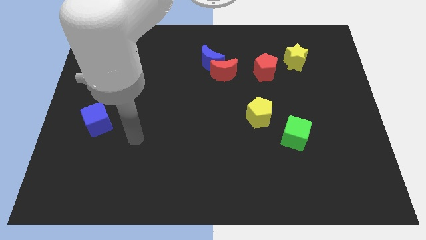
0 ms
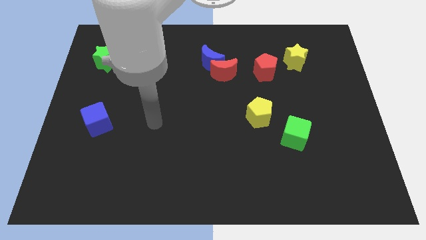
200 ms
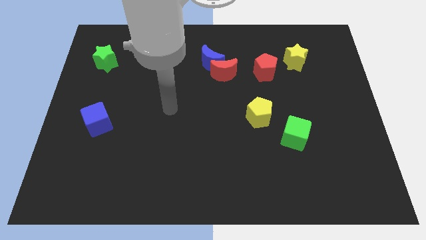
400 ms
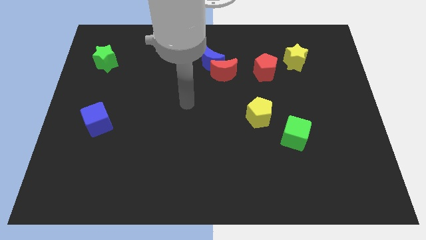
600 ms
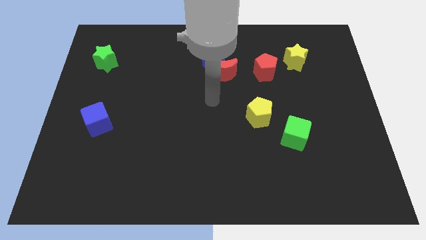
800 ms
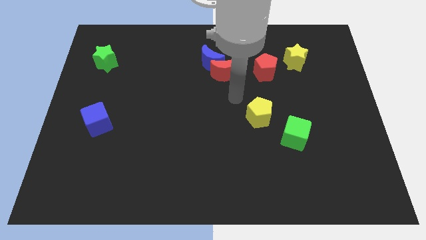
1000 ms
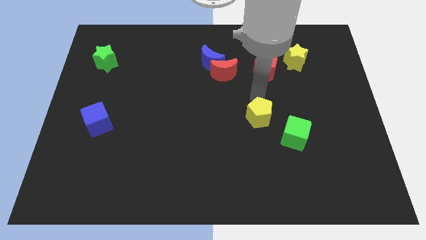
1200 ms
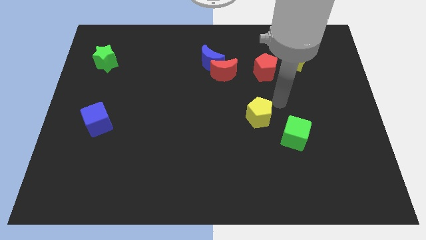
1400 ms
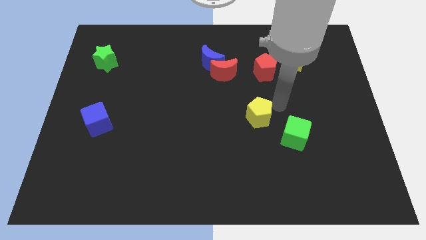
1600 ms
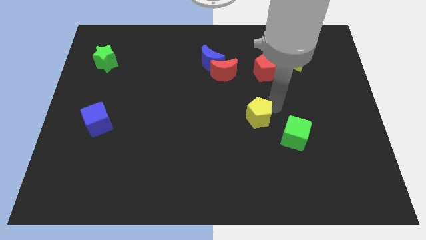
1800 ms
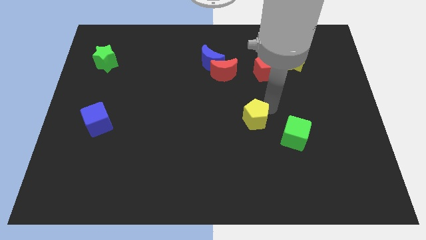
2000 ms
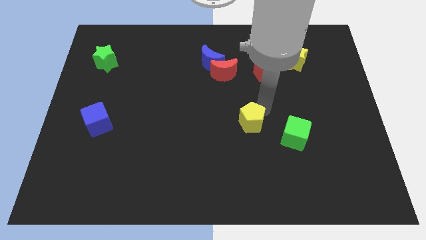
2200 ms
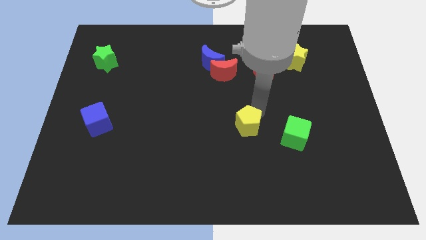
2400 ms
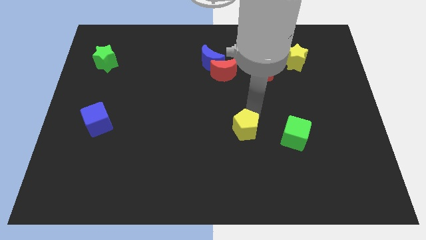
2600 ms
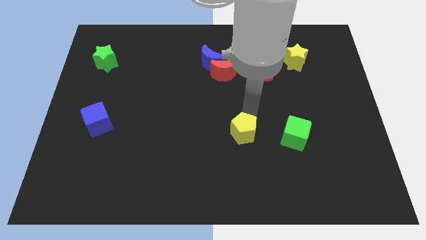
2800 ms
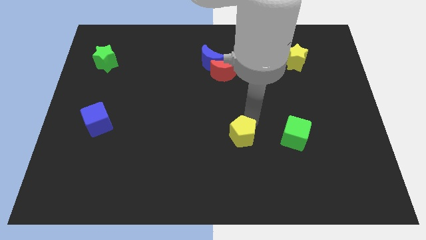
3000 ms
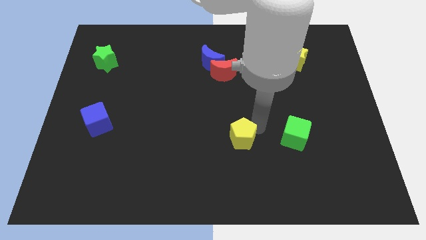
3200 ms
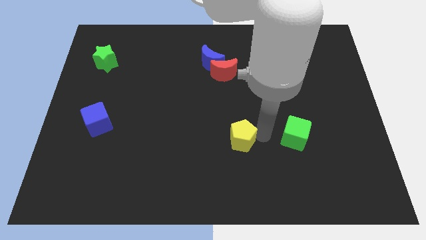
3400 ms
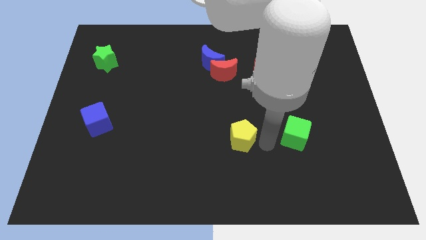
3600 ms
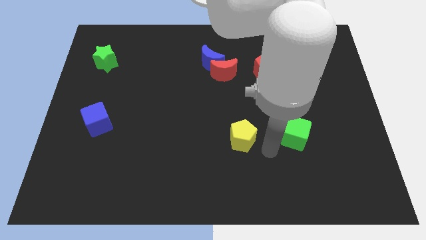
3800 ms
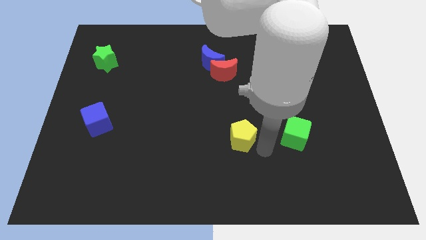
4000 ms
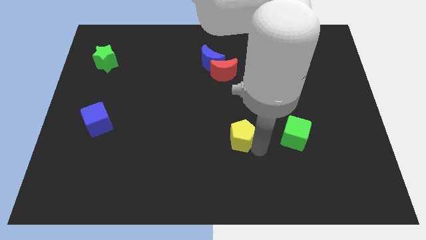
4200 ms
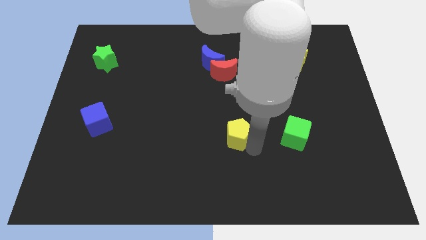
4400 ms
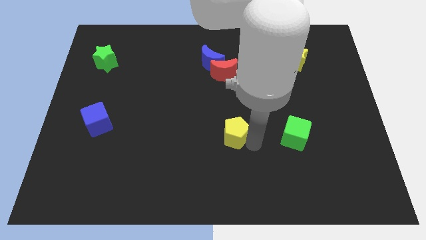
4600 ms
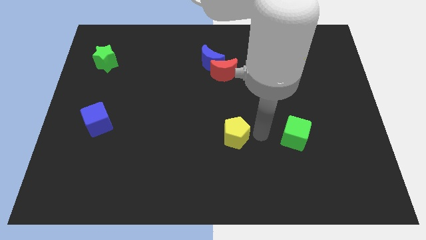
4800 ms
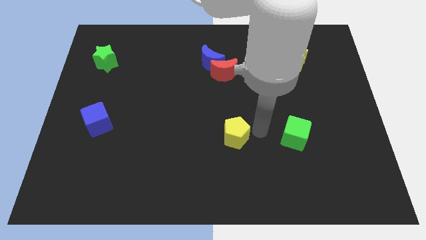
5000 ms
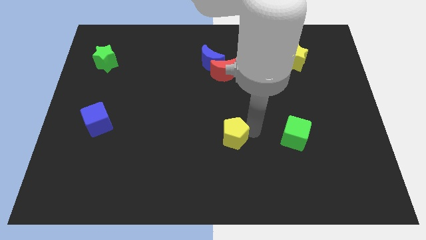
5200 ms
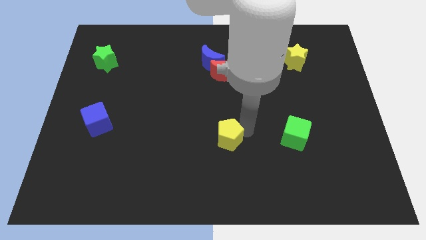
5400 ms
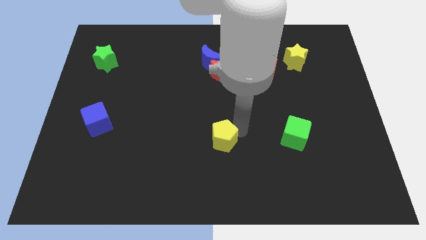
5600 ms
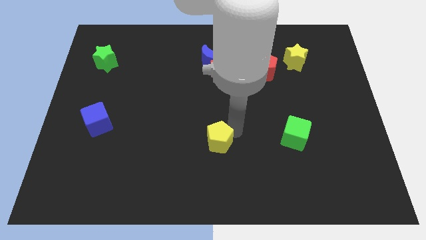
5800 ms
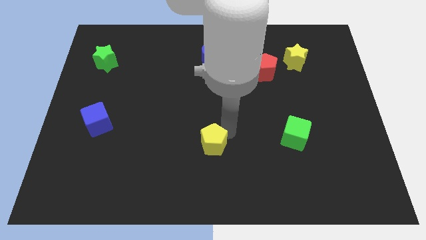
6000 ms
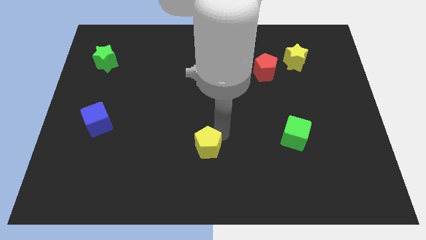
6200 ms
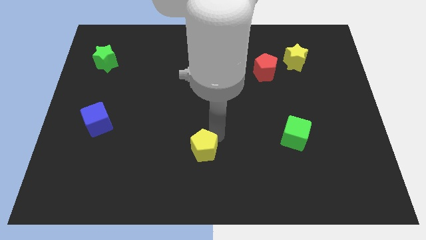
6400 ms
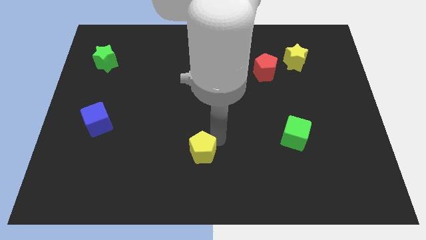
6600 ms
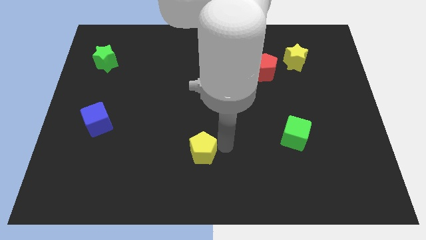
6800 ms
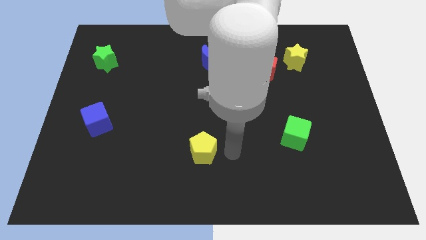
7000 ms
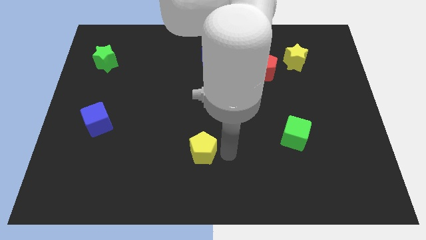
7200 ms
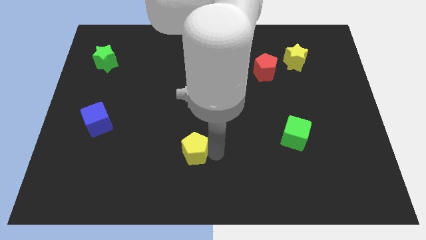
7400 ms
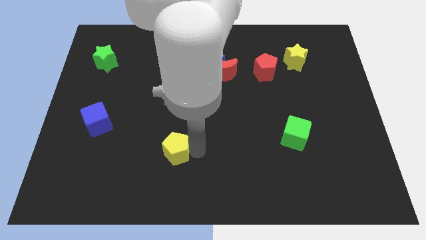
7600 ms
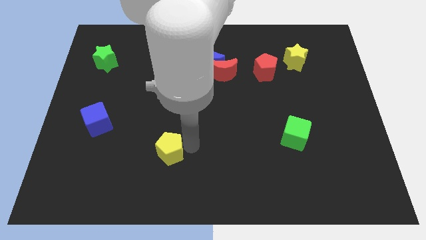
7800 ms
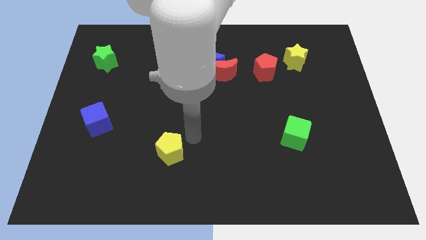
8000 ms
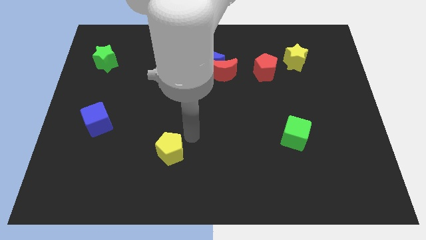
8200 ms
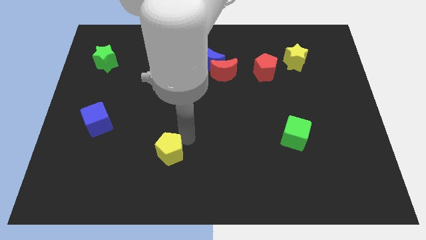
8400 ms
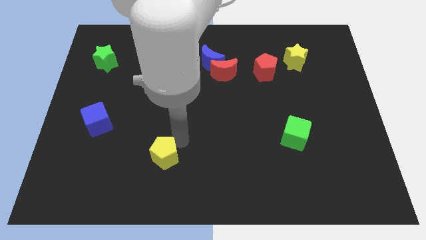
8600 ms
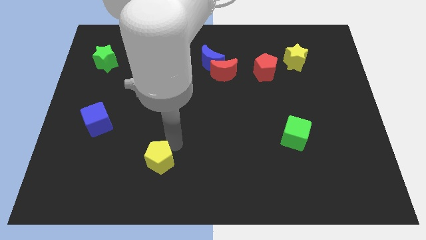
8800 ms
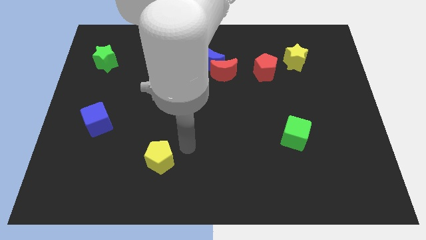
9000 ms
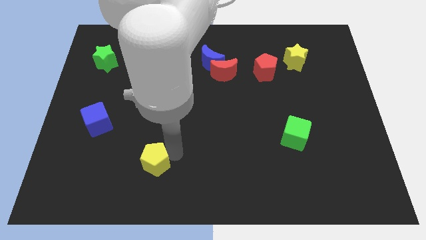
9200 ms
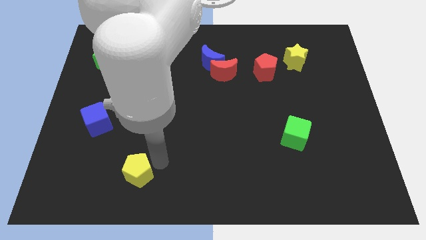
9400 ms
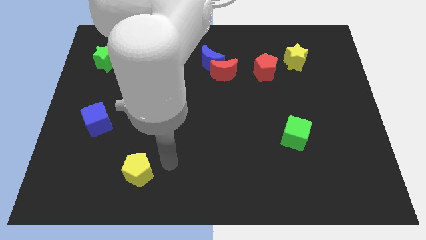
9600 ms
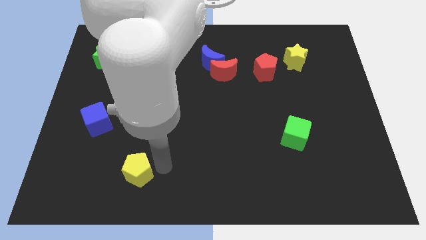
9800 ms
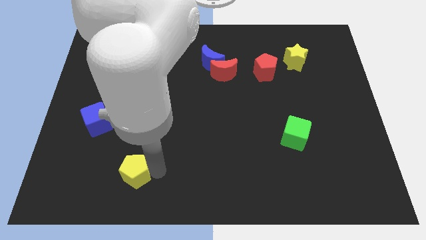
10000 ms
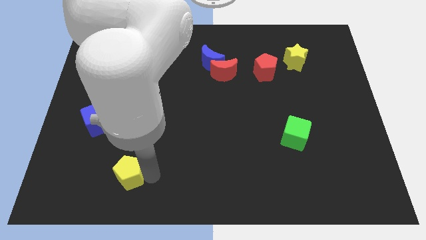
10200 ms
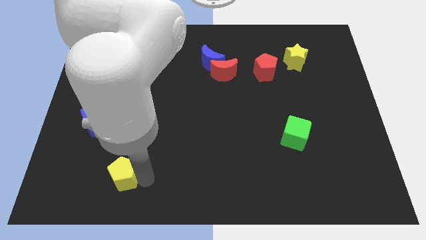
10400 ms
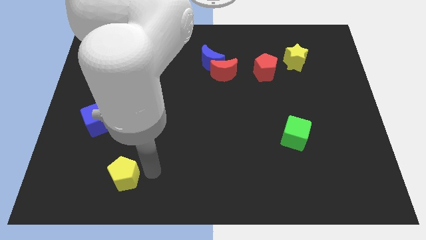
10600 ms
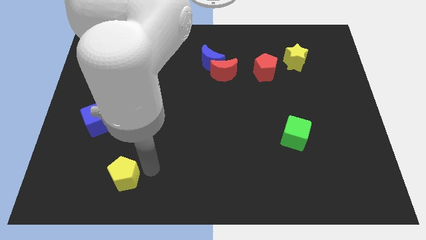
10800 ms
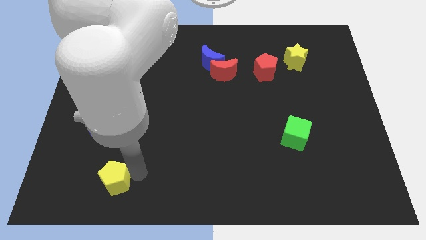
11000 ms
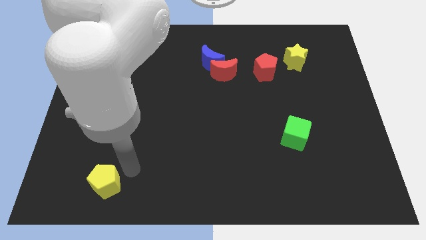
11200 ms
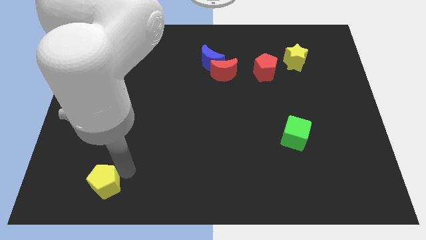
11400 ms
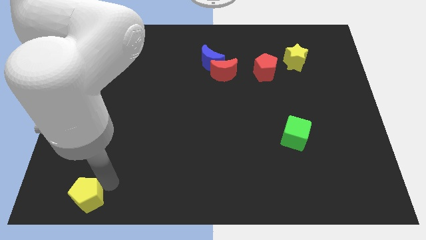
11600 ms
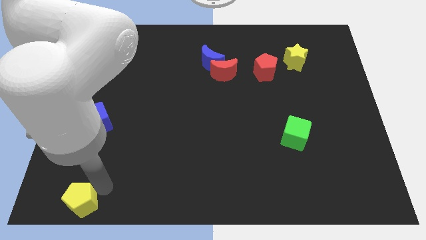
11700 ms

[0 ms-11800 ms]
put the yellow pentagon to the bottom left

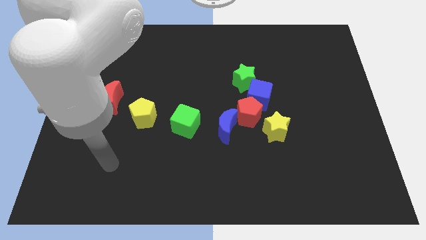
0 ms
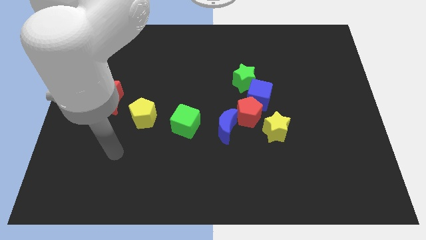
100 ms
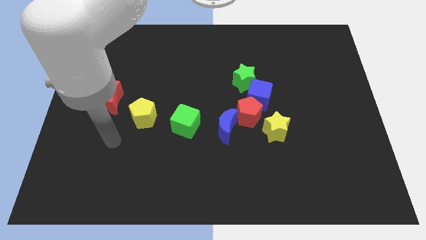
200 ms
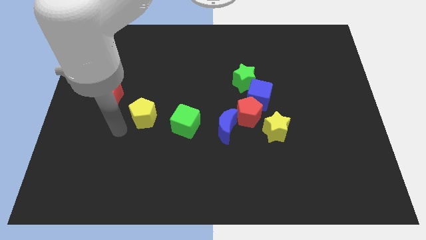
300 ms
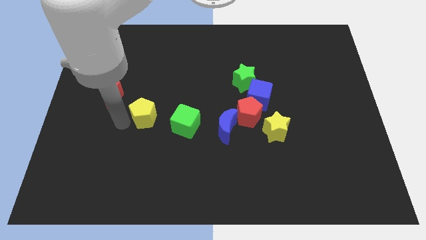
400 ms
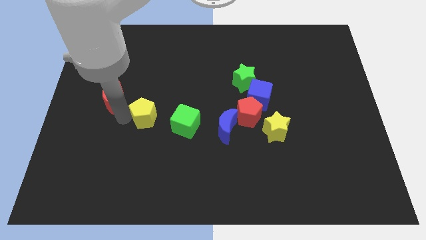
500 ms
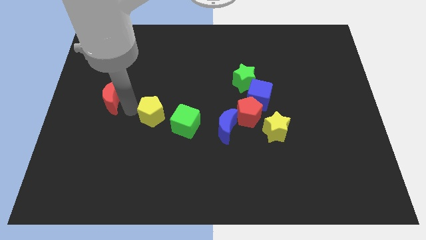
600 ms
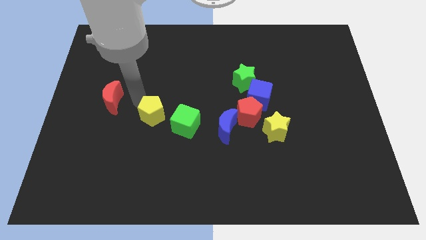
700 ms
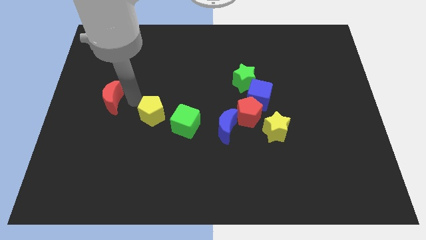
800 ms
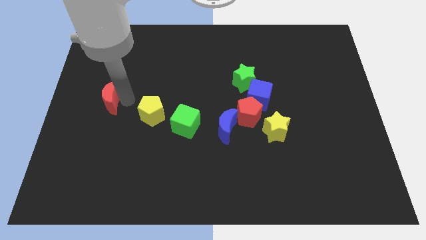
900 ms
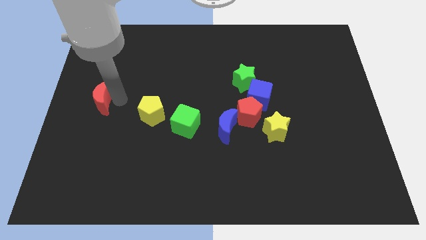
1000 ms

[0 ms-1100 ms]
push the red moon to the left side
